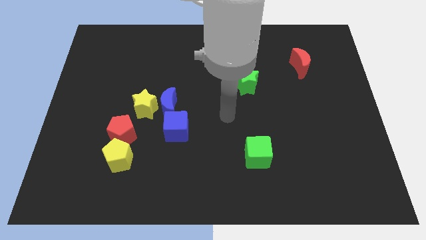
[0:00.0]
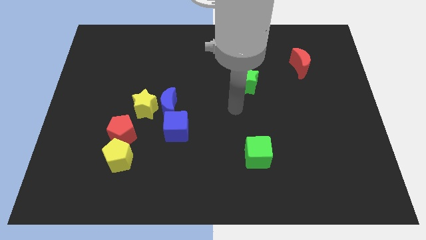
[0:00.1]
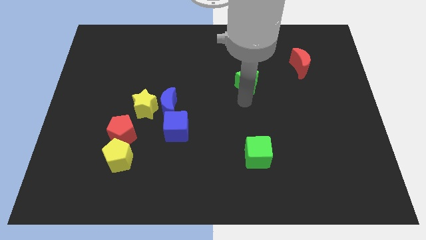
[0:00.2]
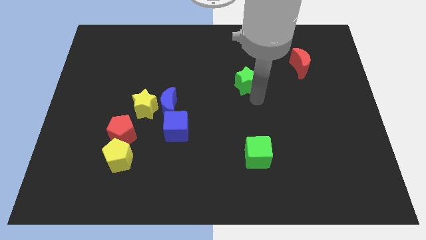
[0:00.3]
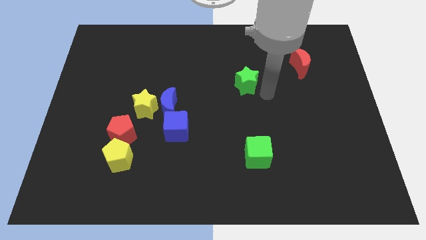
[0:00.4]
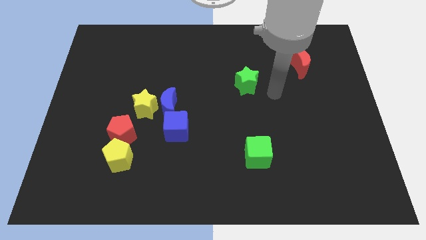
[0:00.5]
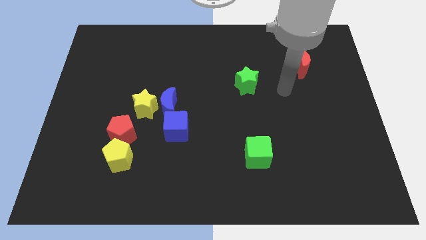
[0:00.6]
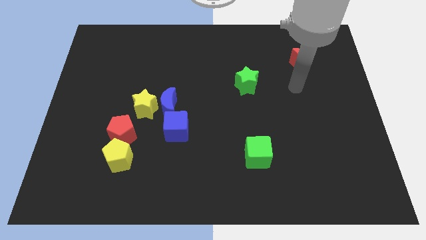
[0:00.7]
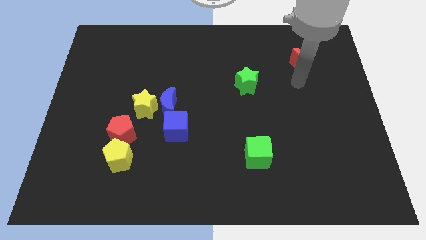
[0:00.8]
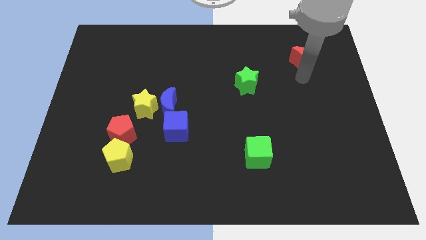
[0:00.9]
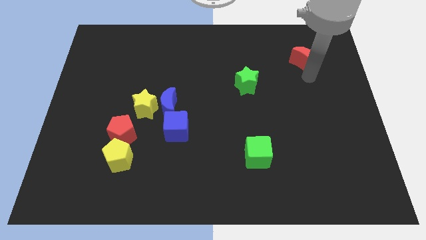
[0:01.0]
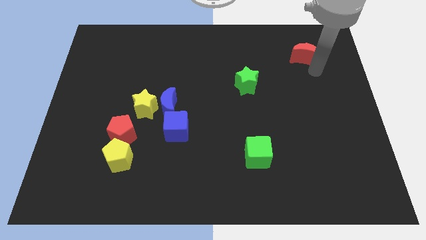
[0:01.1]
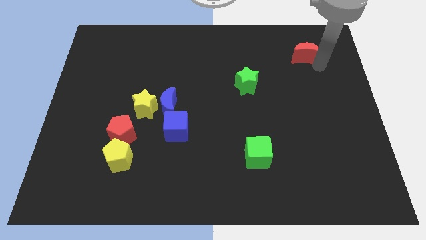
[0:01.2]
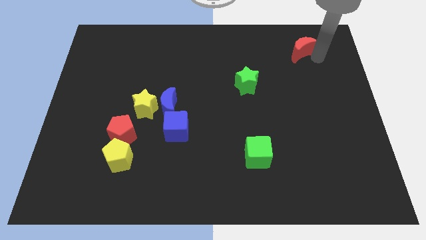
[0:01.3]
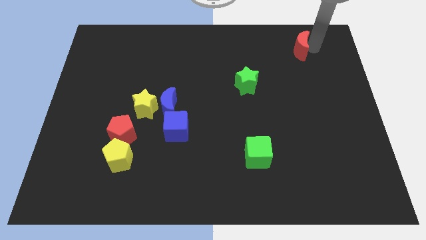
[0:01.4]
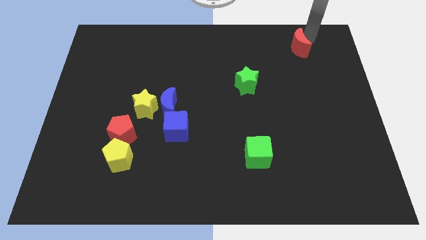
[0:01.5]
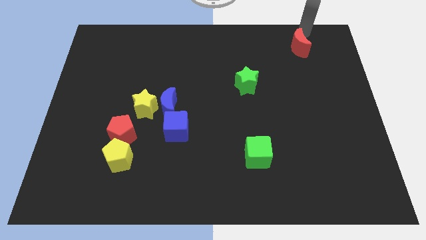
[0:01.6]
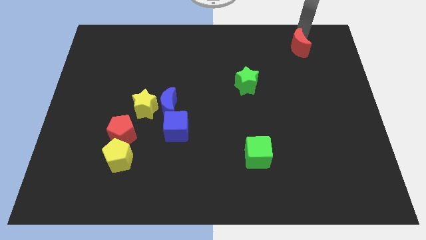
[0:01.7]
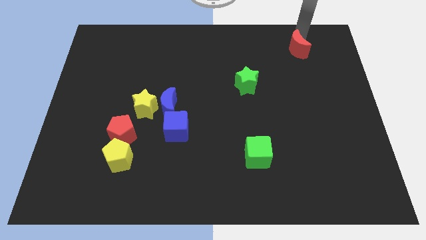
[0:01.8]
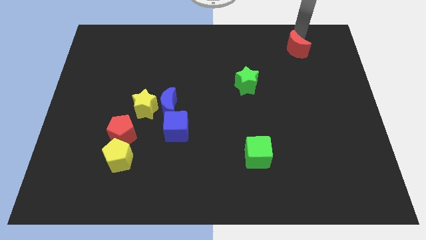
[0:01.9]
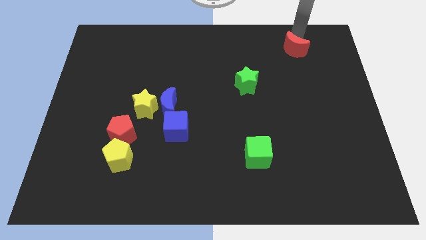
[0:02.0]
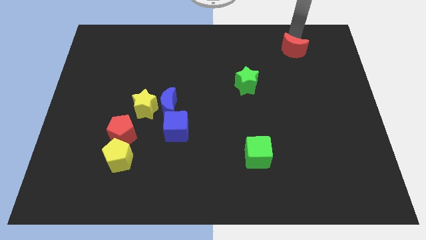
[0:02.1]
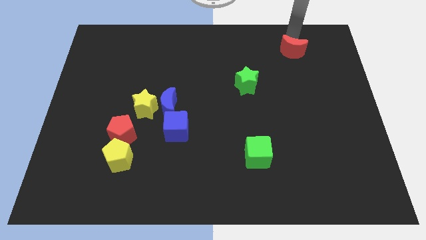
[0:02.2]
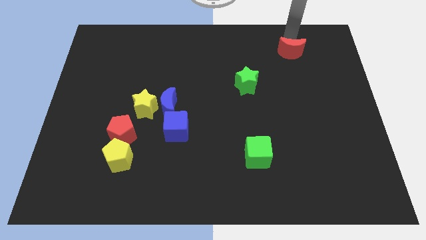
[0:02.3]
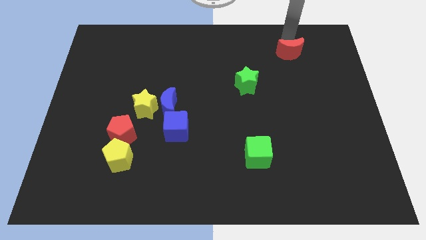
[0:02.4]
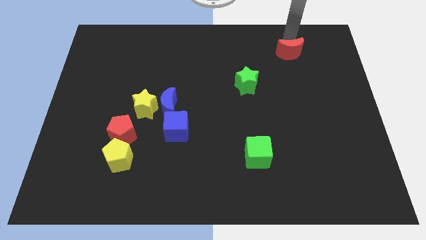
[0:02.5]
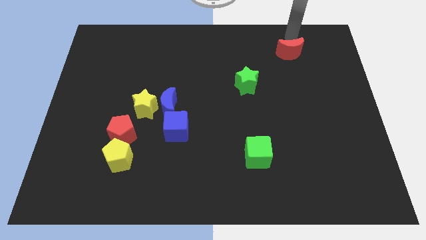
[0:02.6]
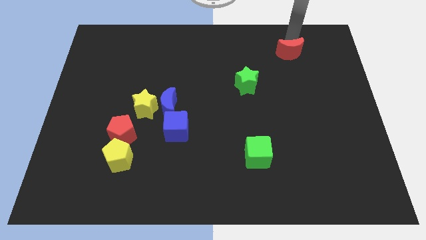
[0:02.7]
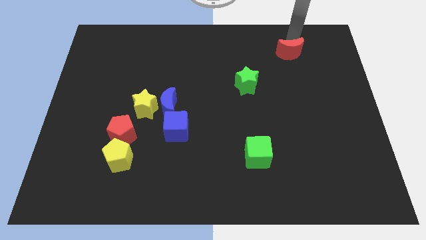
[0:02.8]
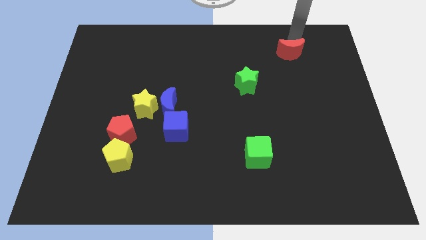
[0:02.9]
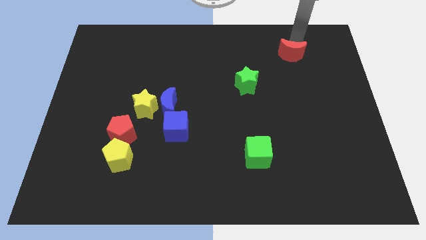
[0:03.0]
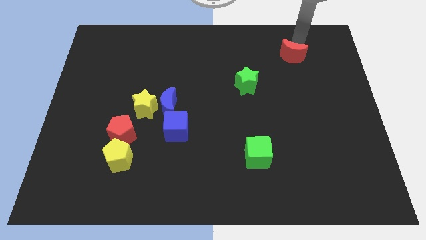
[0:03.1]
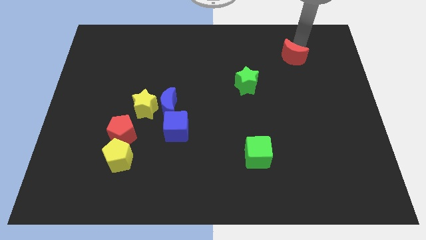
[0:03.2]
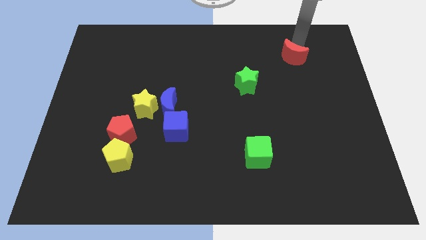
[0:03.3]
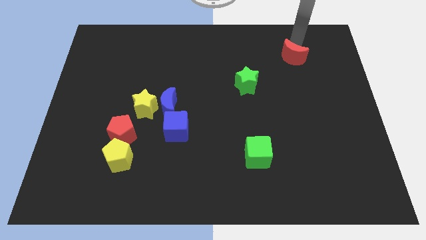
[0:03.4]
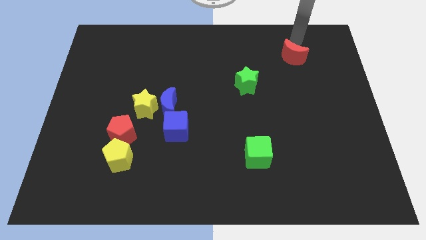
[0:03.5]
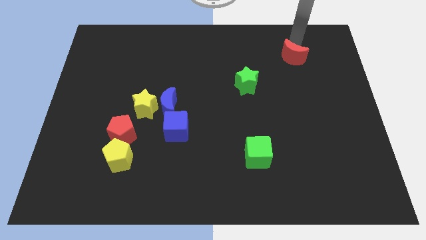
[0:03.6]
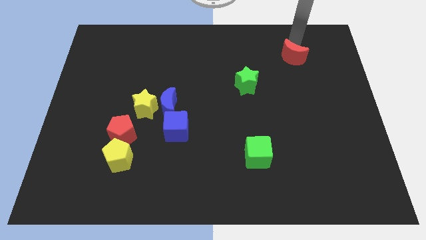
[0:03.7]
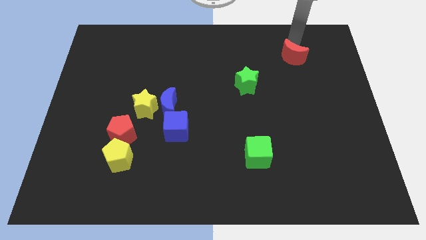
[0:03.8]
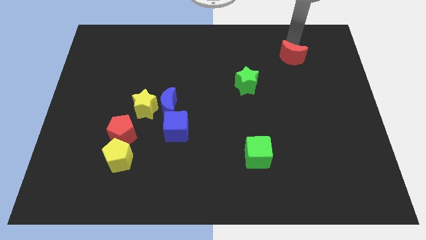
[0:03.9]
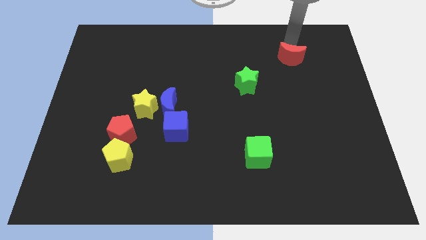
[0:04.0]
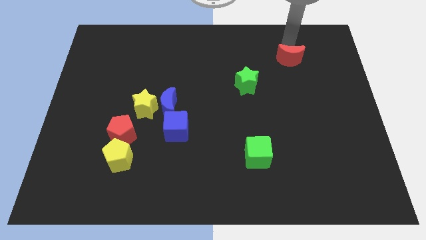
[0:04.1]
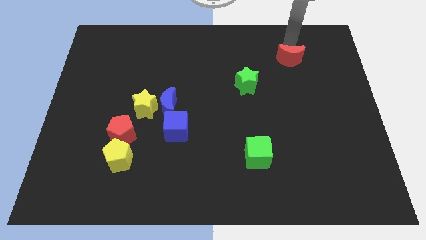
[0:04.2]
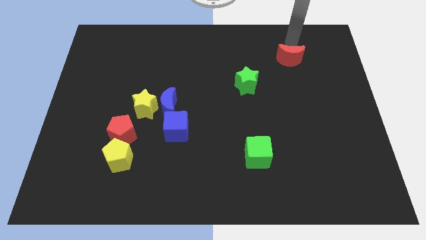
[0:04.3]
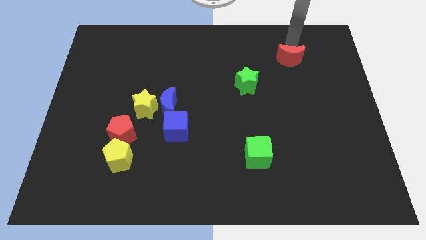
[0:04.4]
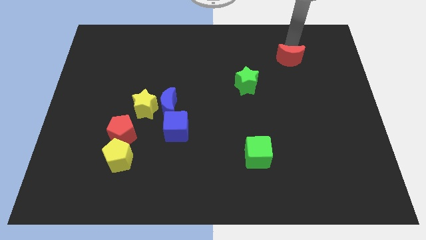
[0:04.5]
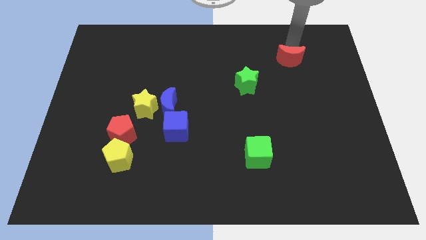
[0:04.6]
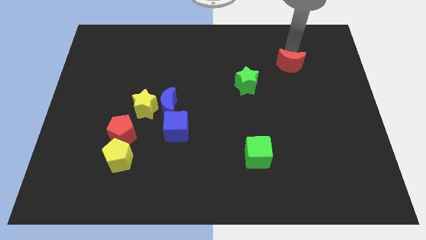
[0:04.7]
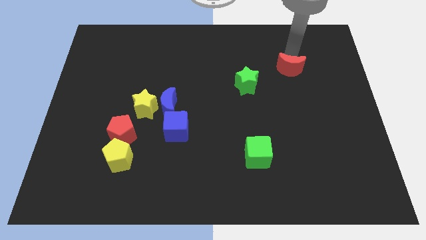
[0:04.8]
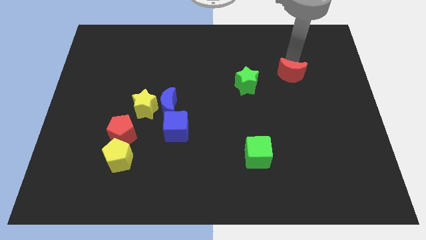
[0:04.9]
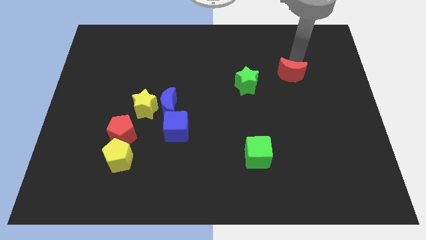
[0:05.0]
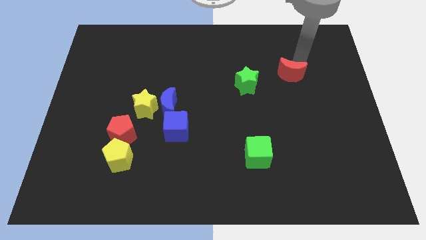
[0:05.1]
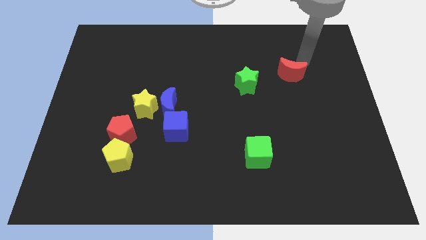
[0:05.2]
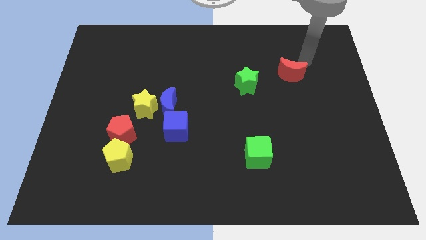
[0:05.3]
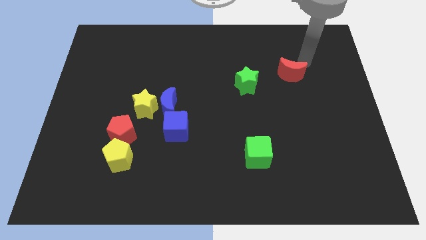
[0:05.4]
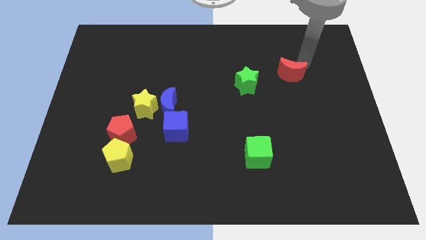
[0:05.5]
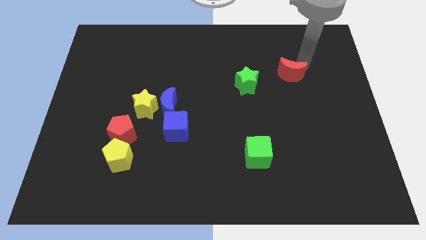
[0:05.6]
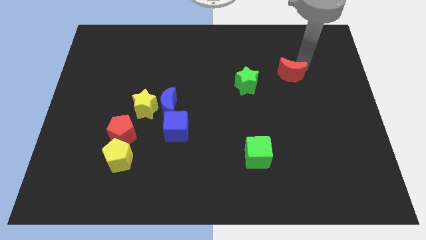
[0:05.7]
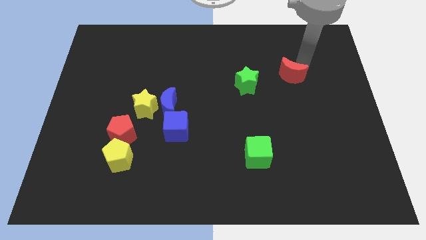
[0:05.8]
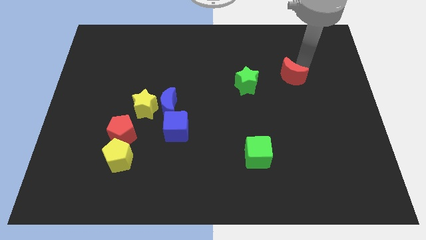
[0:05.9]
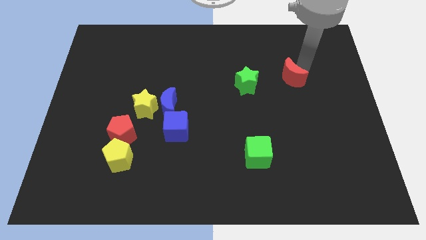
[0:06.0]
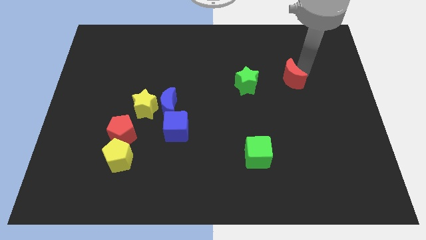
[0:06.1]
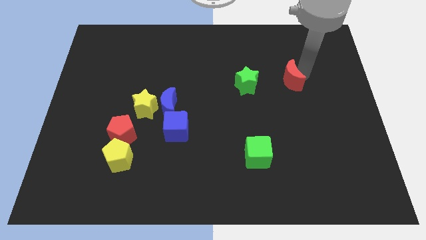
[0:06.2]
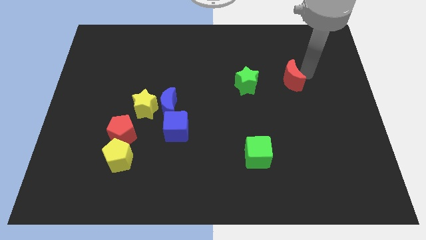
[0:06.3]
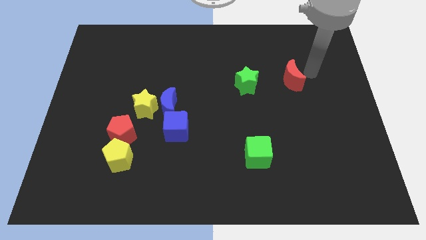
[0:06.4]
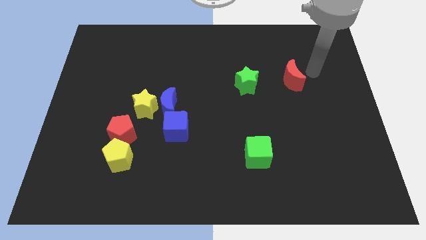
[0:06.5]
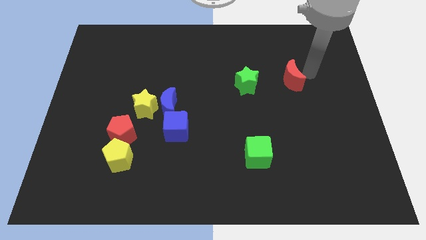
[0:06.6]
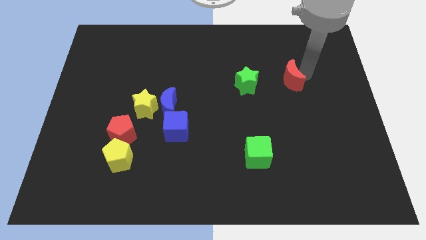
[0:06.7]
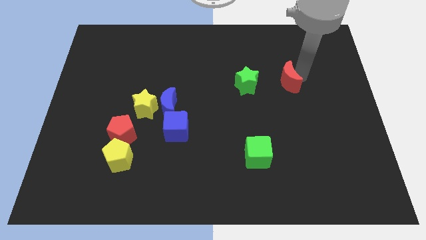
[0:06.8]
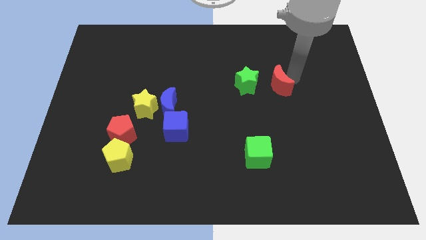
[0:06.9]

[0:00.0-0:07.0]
slide the red moon a little downwards and to the left

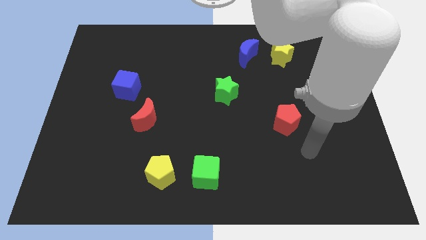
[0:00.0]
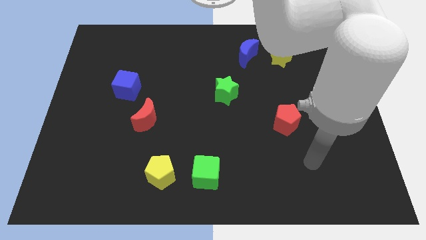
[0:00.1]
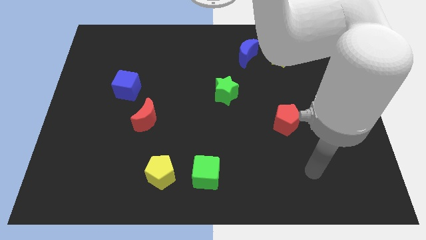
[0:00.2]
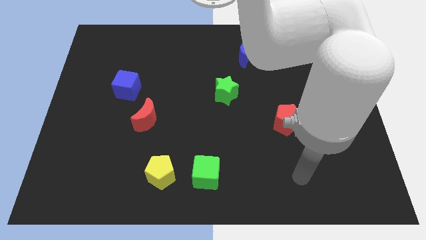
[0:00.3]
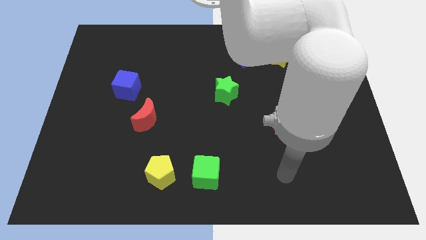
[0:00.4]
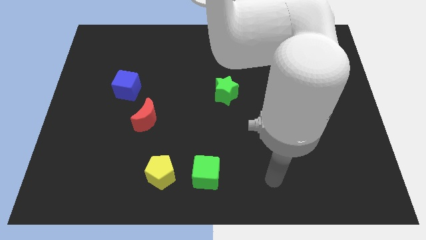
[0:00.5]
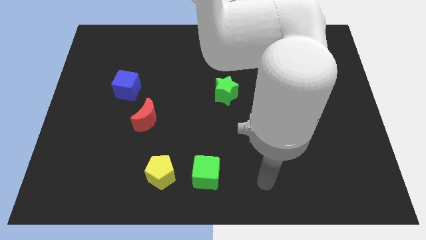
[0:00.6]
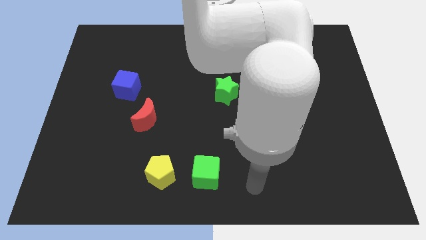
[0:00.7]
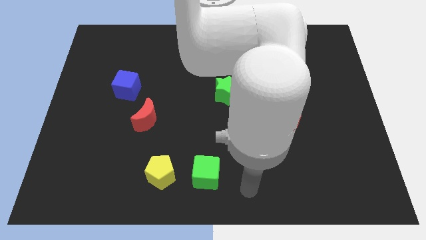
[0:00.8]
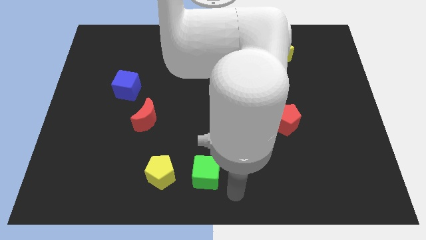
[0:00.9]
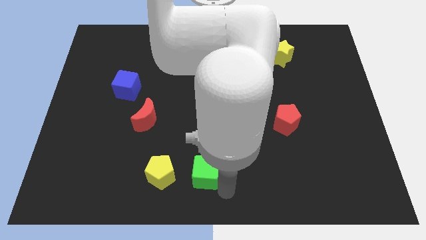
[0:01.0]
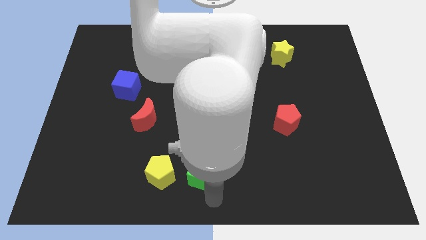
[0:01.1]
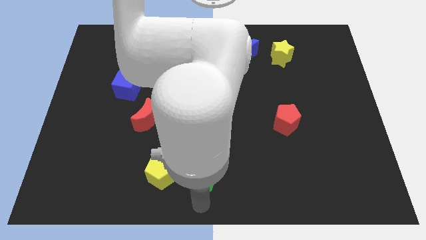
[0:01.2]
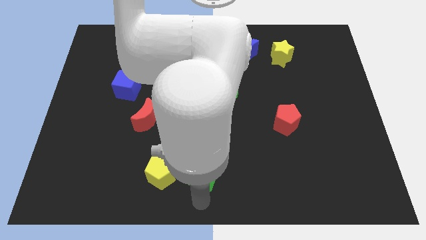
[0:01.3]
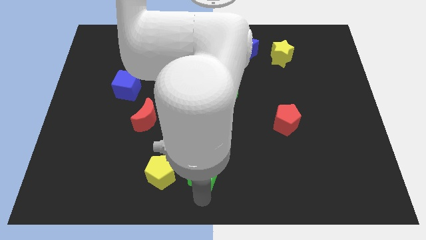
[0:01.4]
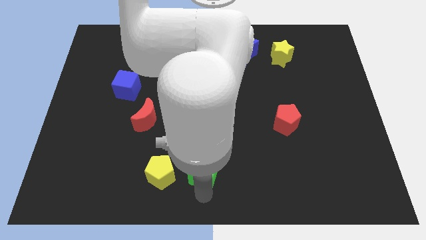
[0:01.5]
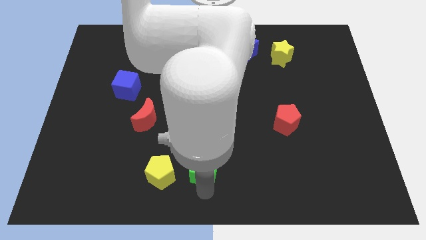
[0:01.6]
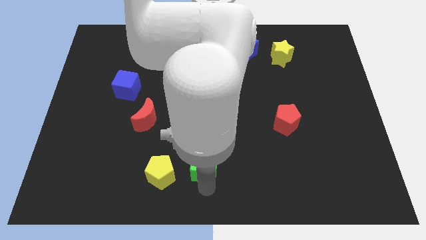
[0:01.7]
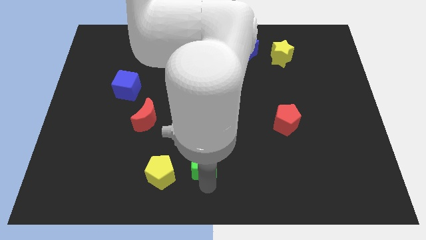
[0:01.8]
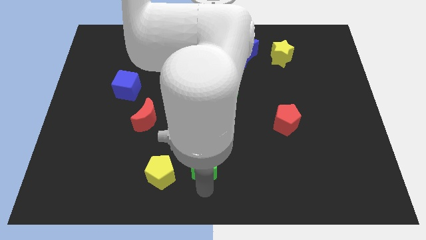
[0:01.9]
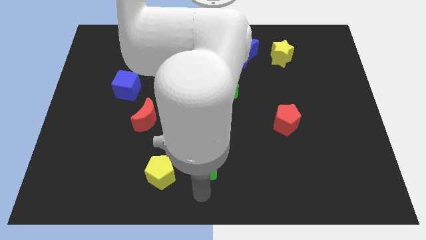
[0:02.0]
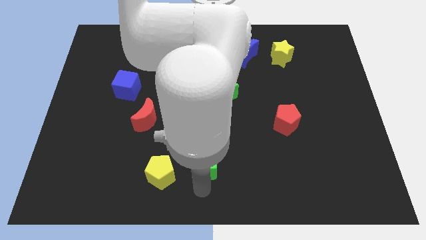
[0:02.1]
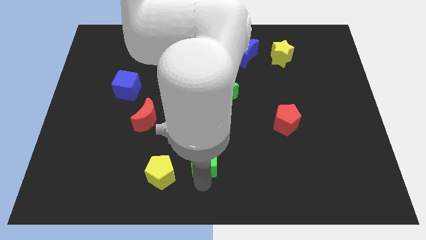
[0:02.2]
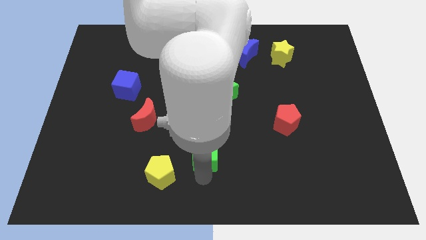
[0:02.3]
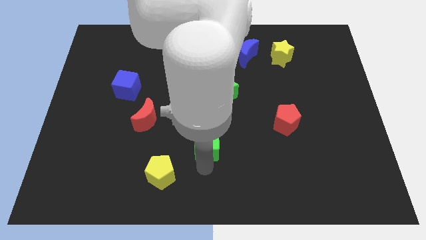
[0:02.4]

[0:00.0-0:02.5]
slide the green cube a bit upwards
